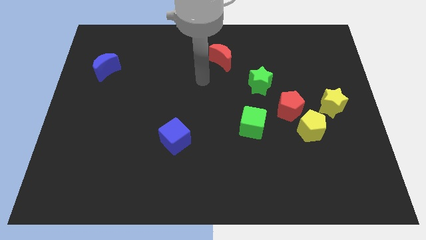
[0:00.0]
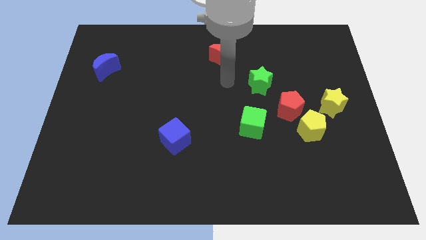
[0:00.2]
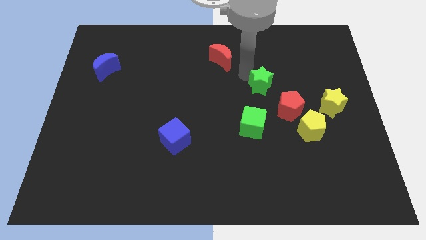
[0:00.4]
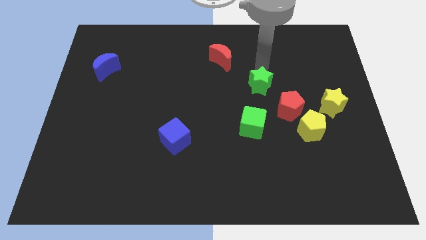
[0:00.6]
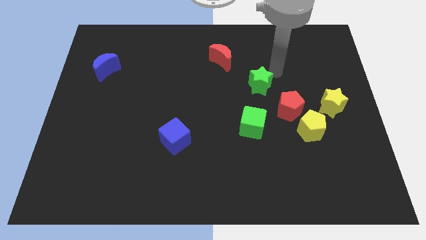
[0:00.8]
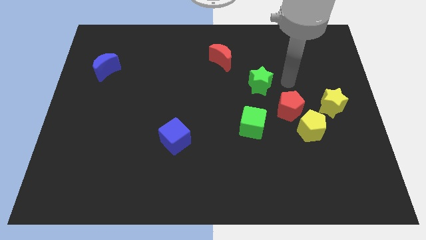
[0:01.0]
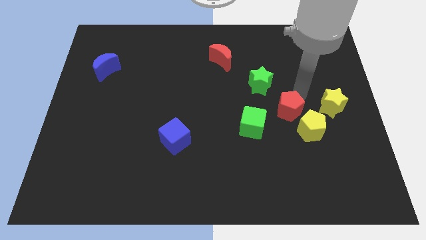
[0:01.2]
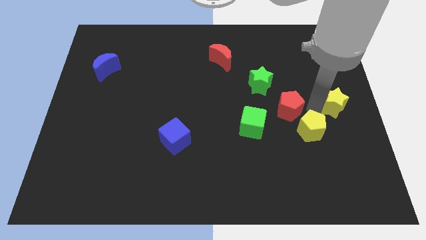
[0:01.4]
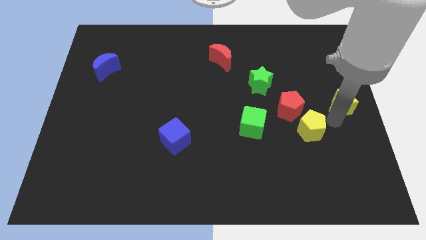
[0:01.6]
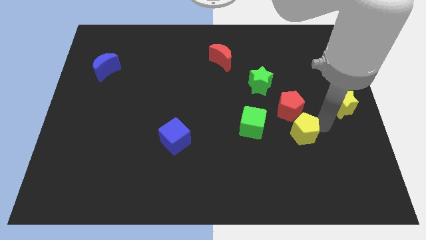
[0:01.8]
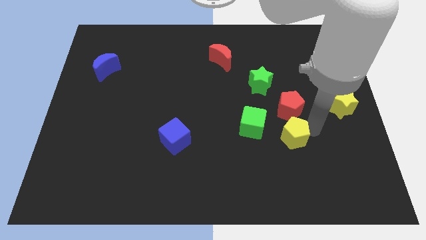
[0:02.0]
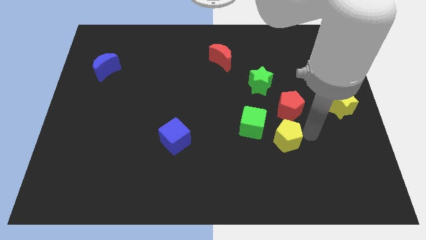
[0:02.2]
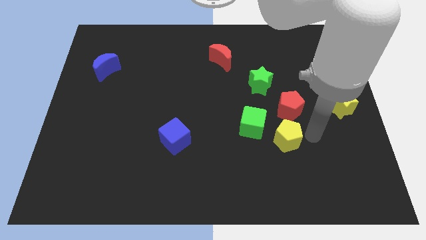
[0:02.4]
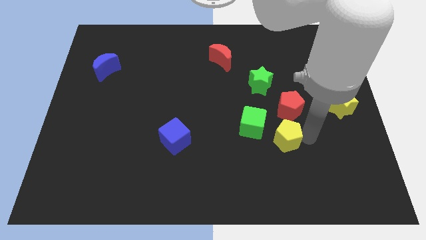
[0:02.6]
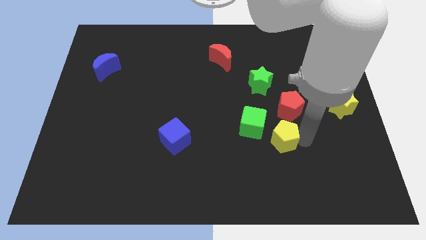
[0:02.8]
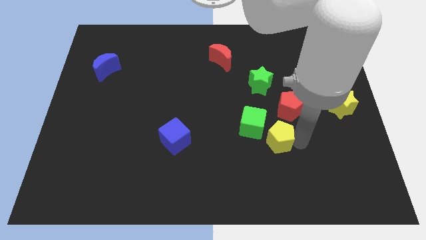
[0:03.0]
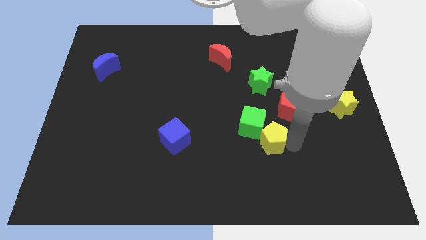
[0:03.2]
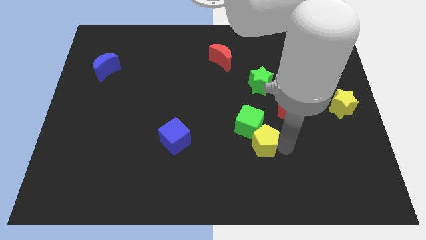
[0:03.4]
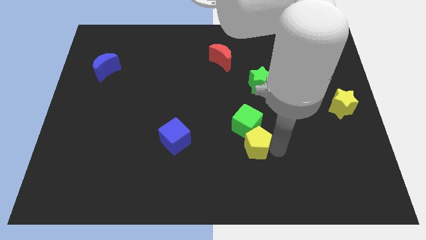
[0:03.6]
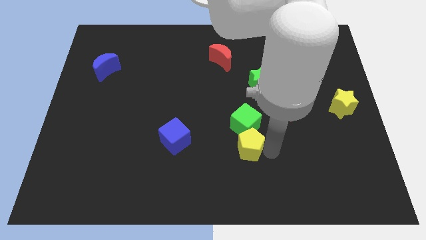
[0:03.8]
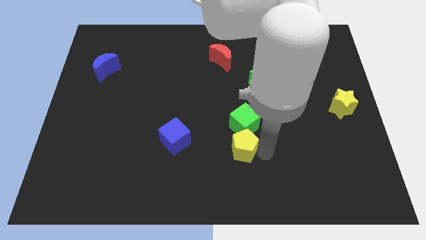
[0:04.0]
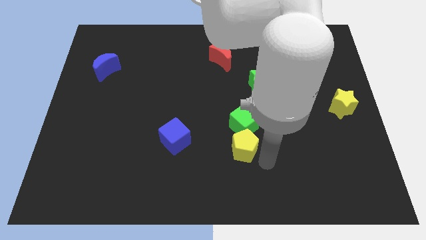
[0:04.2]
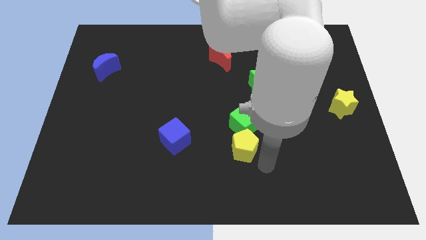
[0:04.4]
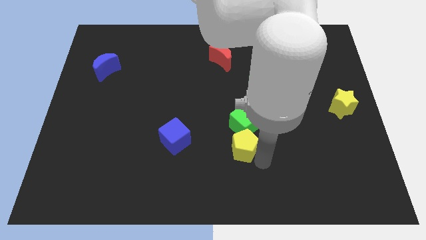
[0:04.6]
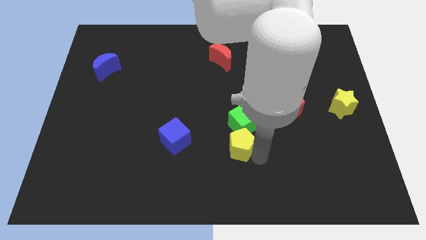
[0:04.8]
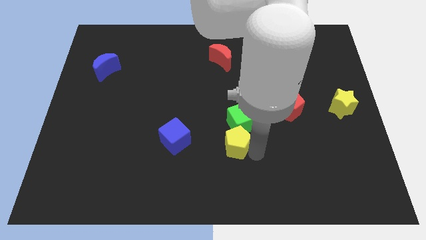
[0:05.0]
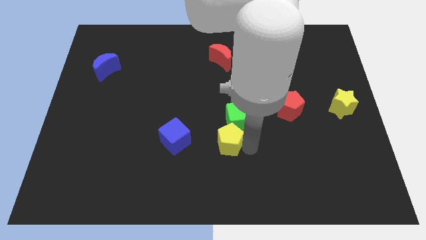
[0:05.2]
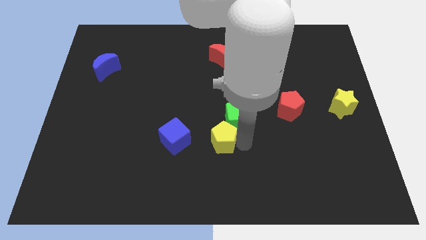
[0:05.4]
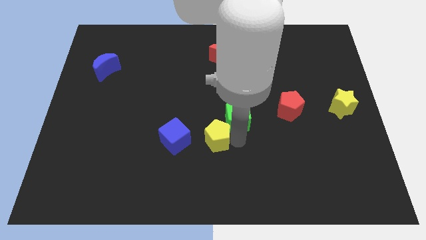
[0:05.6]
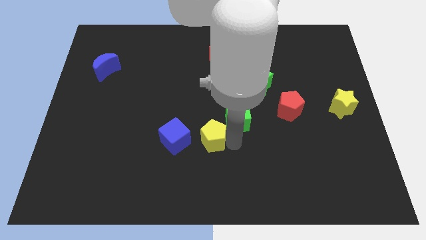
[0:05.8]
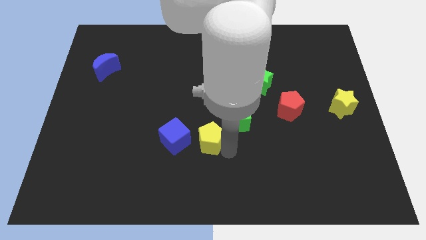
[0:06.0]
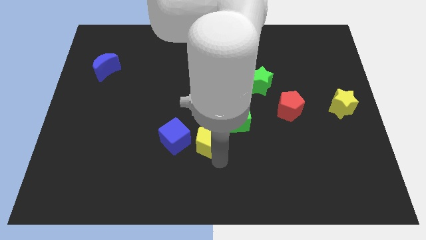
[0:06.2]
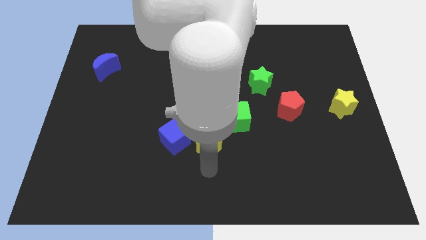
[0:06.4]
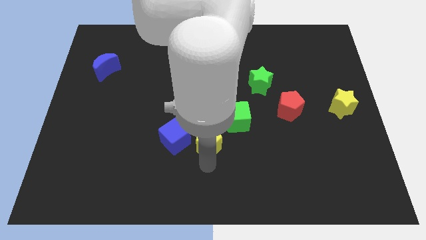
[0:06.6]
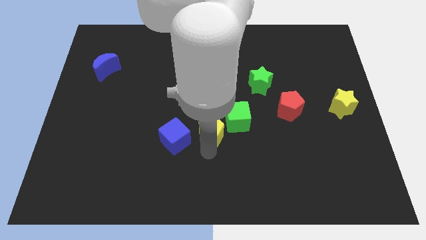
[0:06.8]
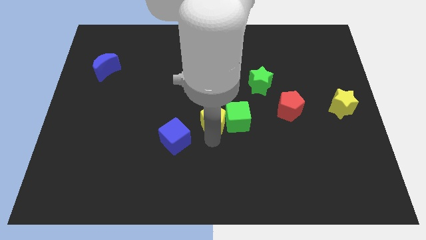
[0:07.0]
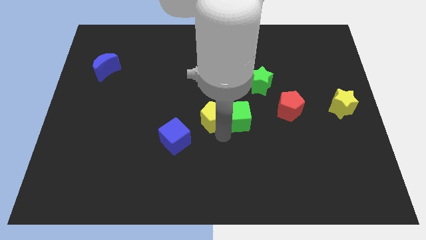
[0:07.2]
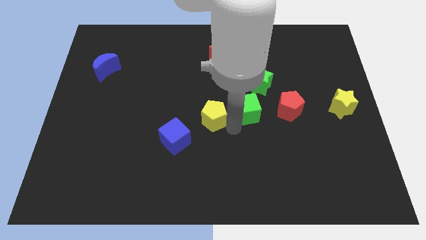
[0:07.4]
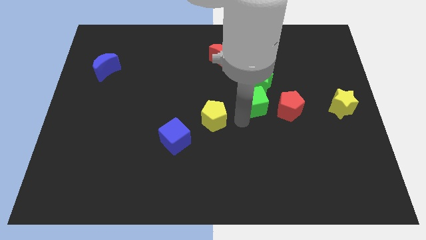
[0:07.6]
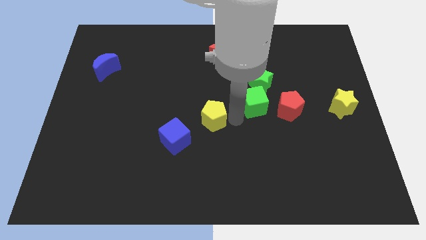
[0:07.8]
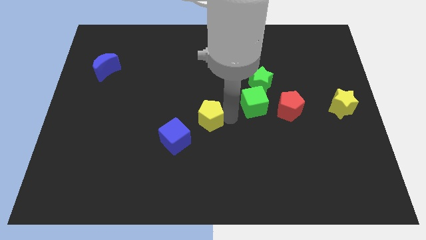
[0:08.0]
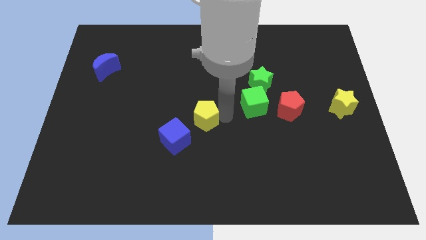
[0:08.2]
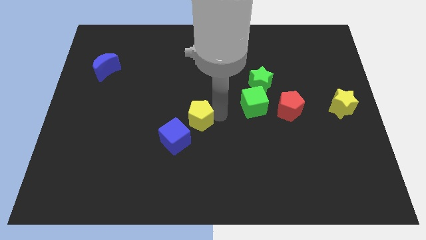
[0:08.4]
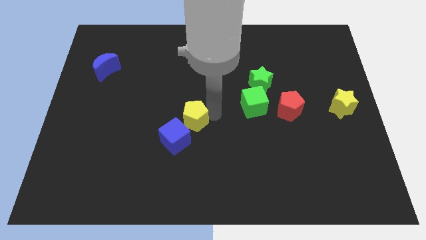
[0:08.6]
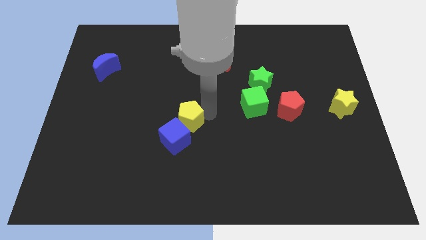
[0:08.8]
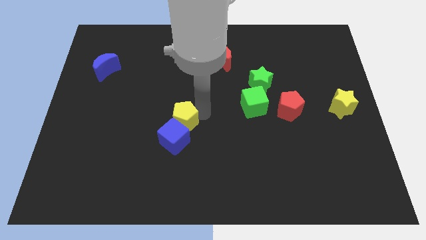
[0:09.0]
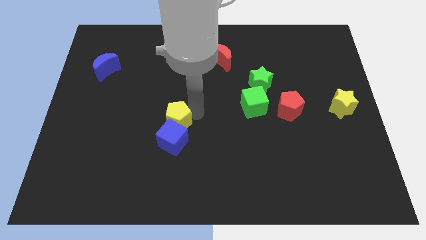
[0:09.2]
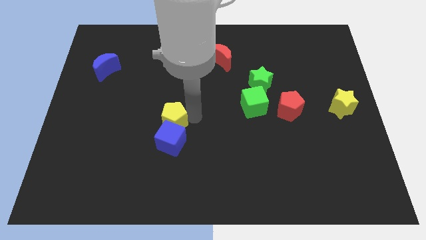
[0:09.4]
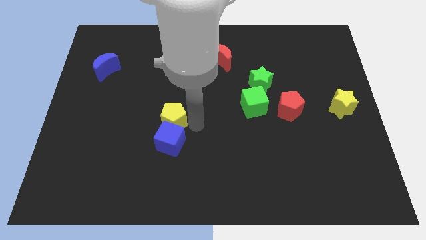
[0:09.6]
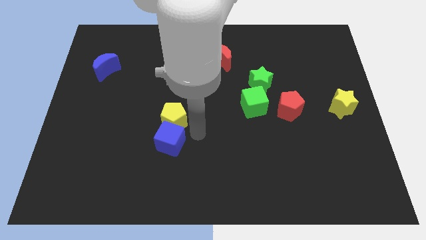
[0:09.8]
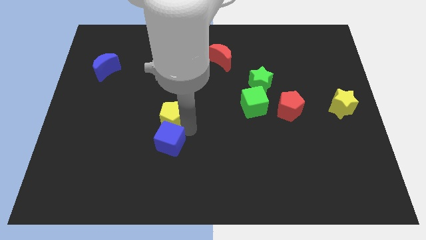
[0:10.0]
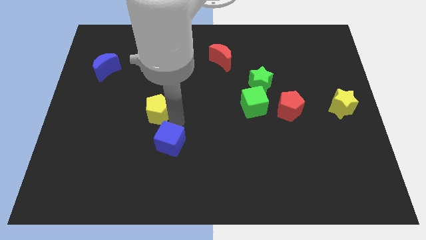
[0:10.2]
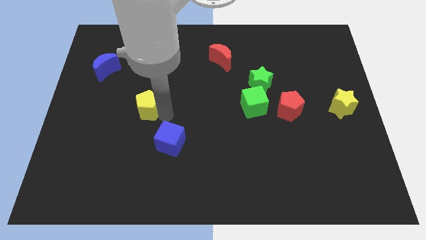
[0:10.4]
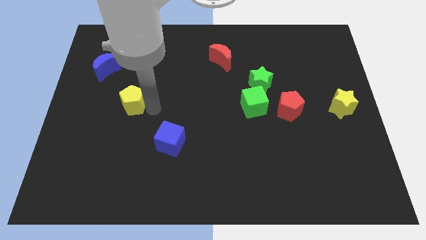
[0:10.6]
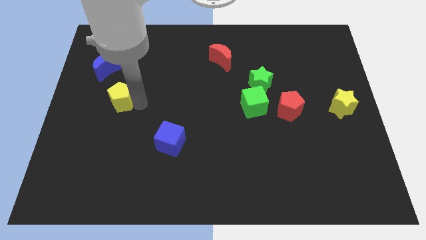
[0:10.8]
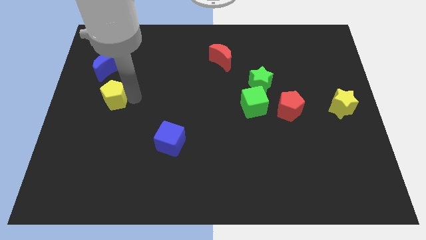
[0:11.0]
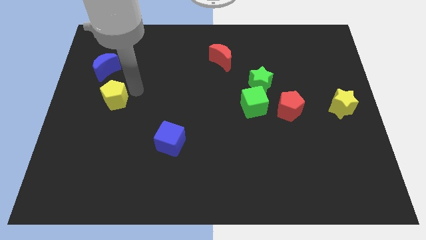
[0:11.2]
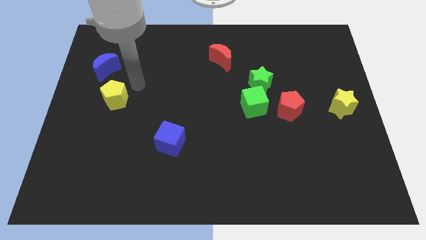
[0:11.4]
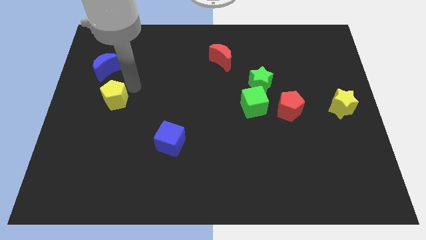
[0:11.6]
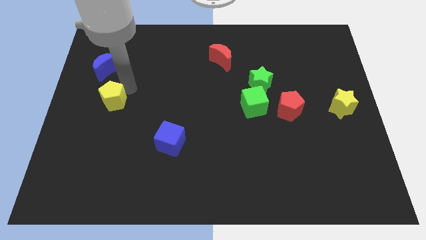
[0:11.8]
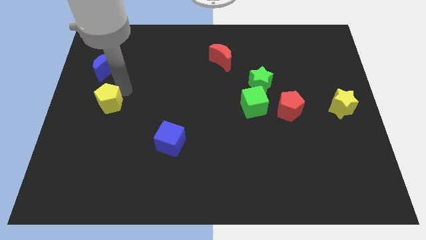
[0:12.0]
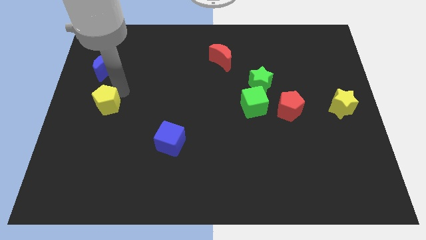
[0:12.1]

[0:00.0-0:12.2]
push the yellow pentagon to the left side of the board

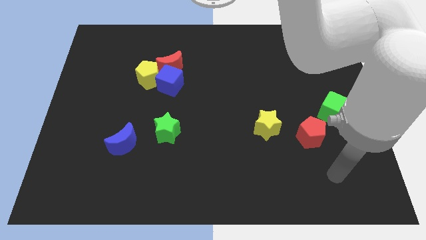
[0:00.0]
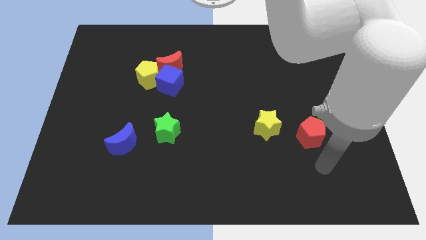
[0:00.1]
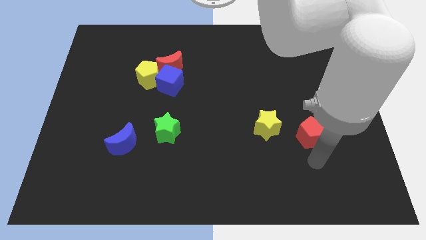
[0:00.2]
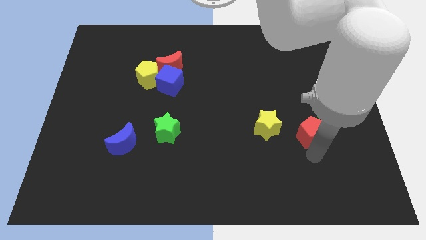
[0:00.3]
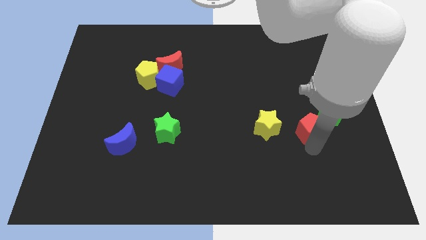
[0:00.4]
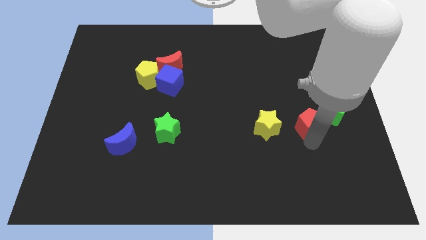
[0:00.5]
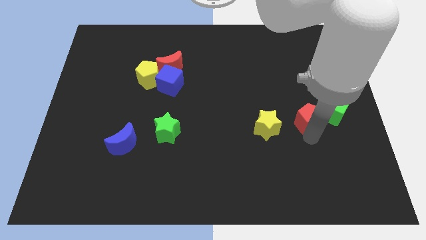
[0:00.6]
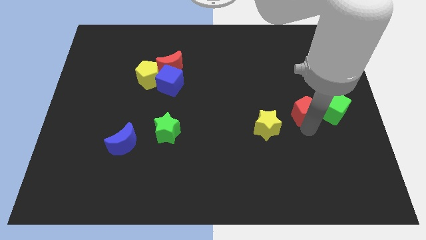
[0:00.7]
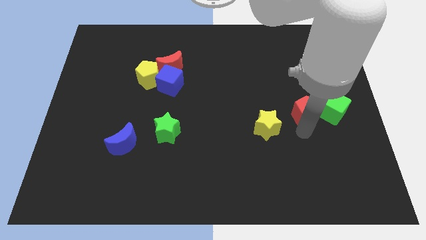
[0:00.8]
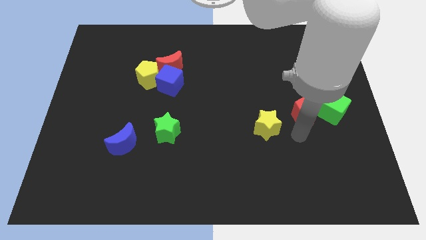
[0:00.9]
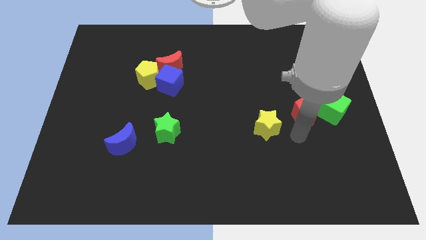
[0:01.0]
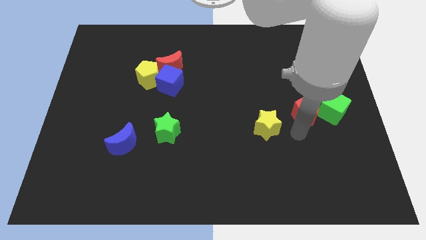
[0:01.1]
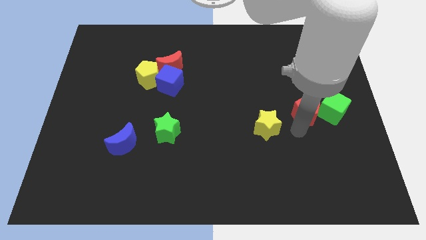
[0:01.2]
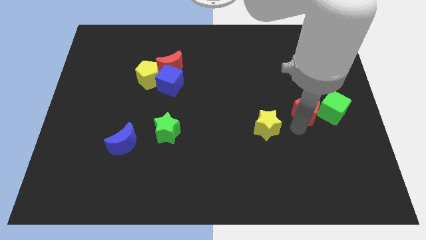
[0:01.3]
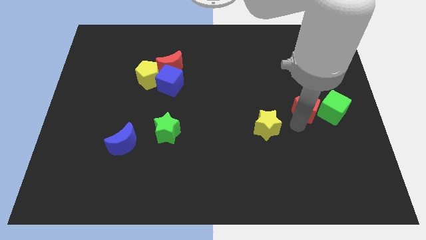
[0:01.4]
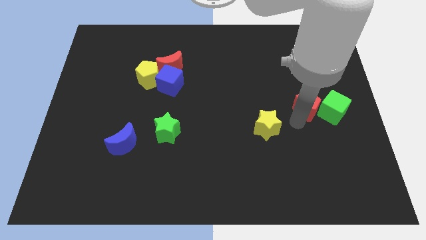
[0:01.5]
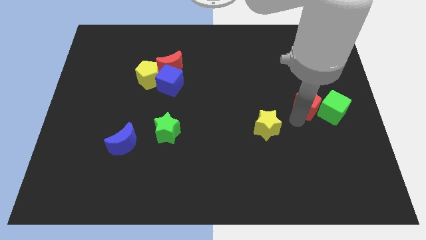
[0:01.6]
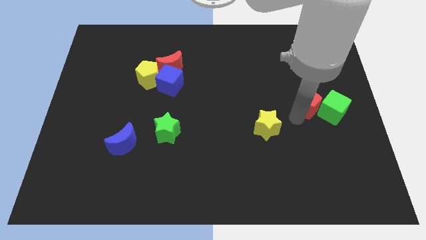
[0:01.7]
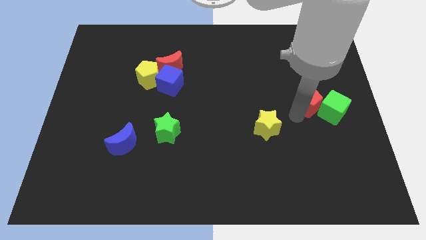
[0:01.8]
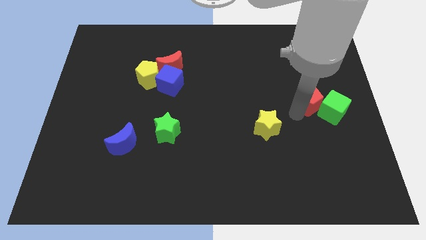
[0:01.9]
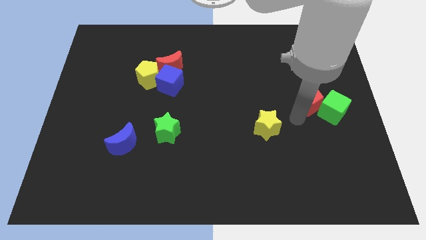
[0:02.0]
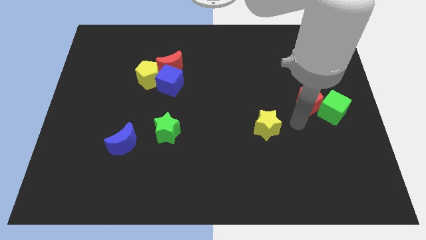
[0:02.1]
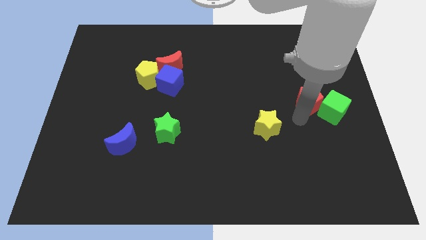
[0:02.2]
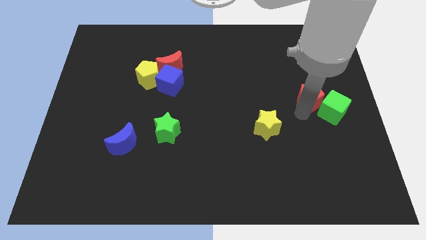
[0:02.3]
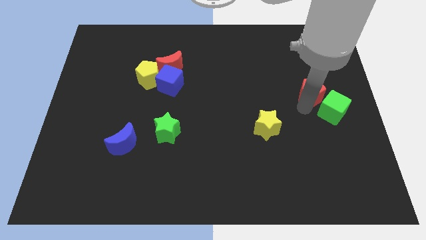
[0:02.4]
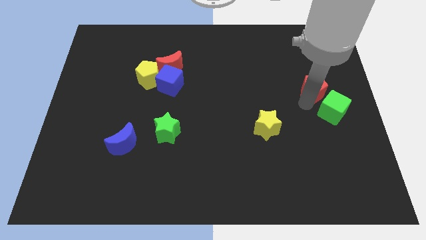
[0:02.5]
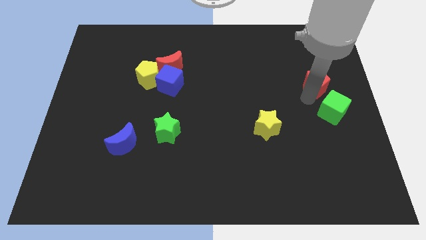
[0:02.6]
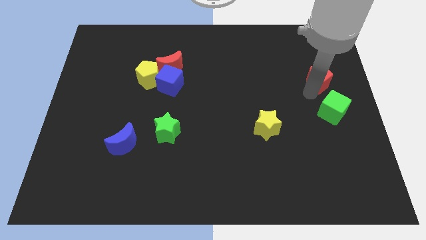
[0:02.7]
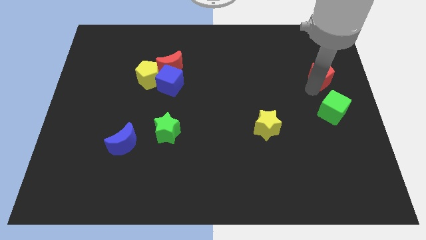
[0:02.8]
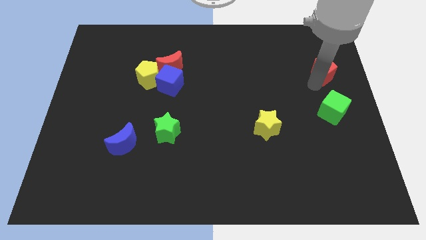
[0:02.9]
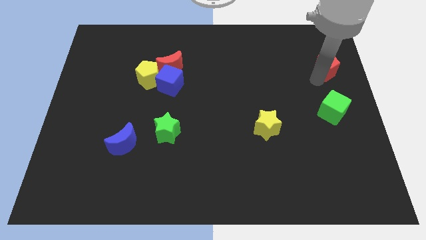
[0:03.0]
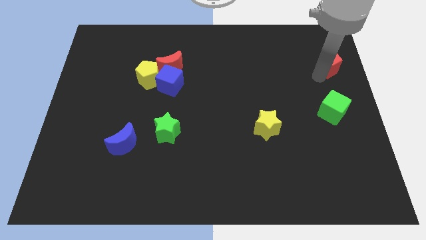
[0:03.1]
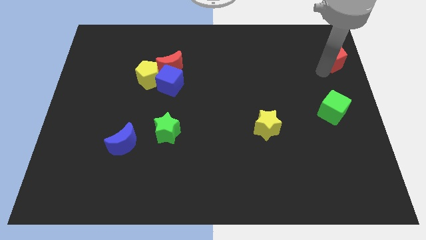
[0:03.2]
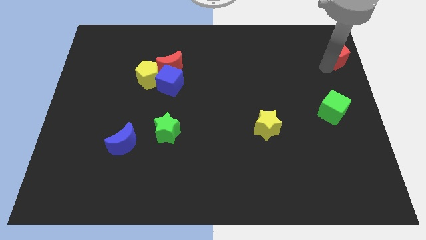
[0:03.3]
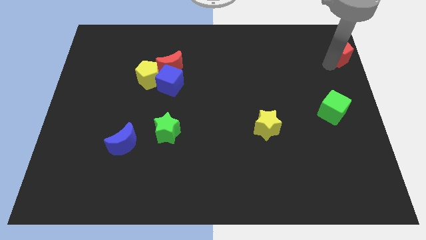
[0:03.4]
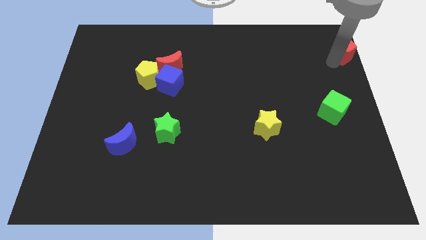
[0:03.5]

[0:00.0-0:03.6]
slide the red pentagon to the top right
